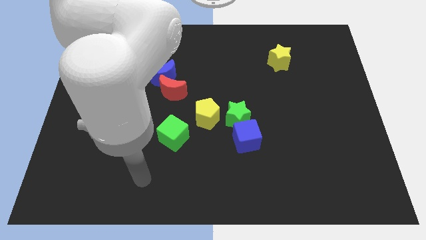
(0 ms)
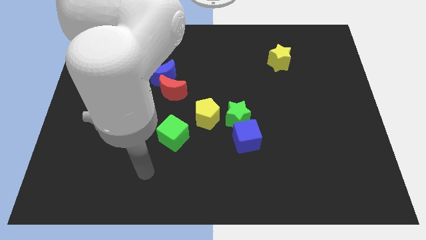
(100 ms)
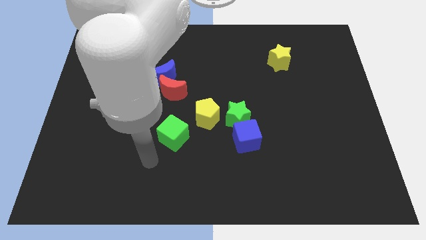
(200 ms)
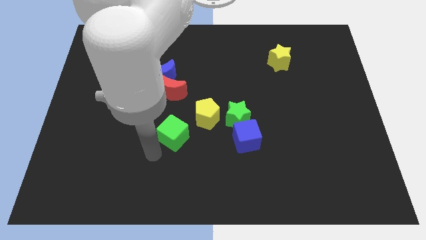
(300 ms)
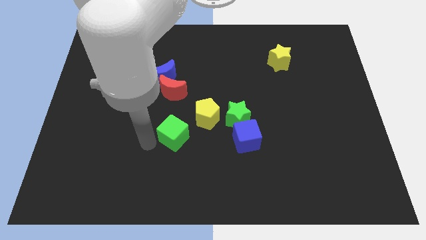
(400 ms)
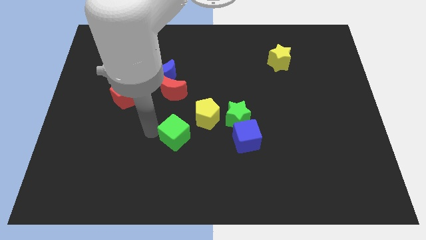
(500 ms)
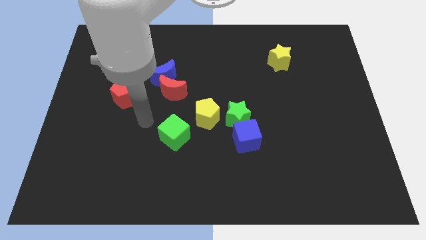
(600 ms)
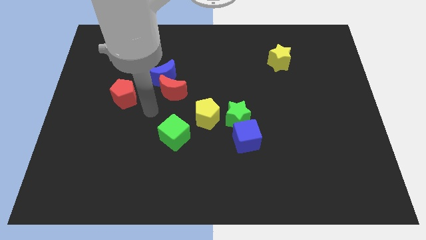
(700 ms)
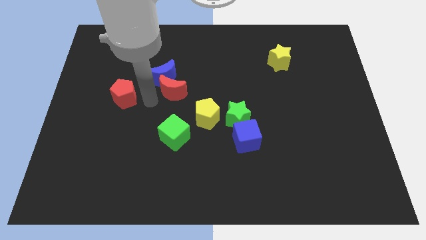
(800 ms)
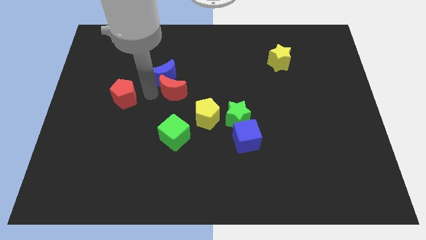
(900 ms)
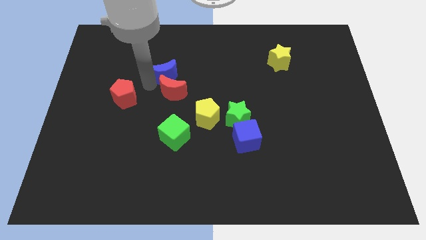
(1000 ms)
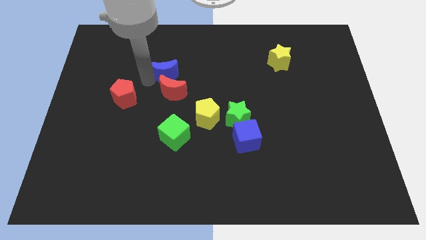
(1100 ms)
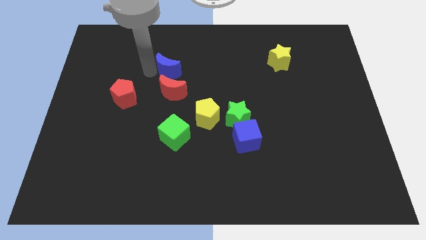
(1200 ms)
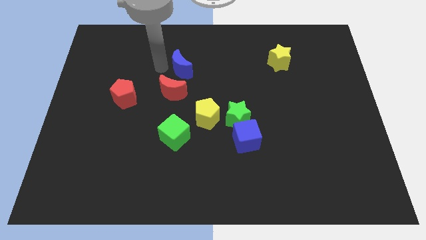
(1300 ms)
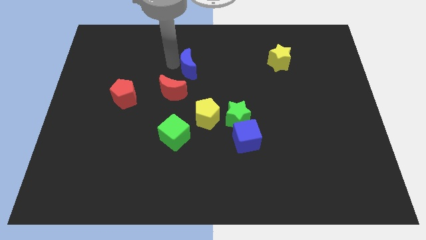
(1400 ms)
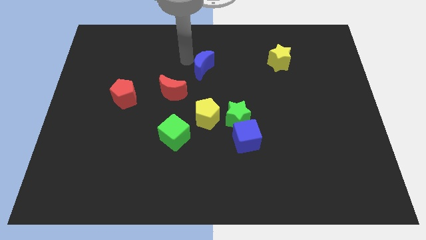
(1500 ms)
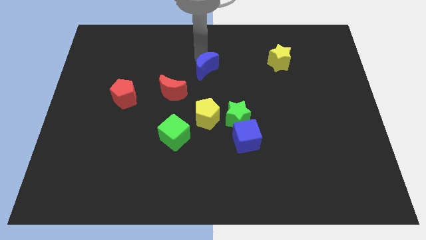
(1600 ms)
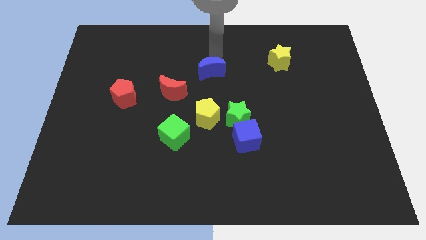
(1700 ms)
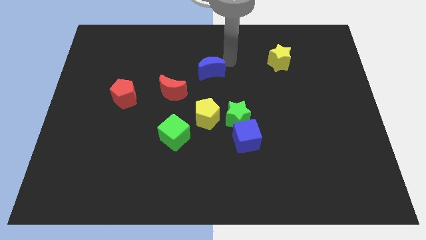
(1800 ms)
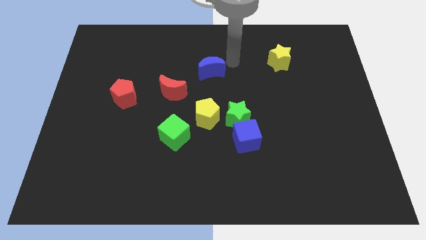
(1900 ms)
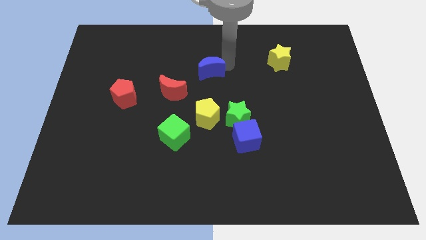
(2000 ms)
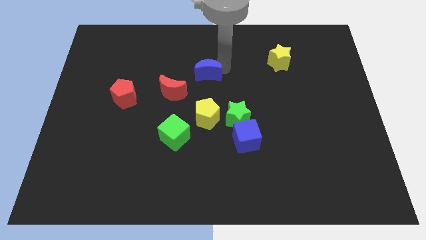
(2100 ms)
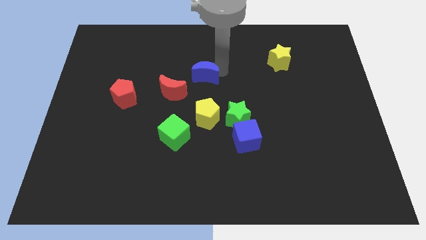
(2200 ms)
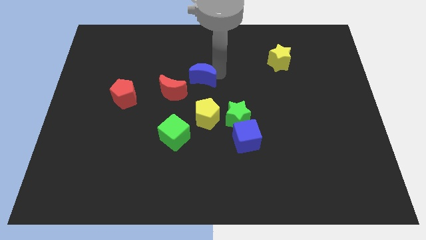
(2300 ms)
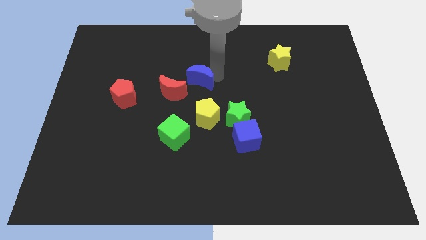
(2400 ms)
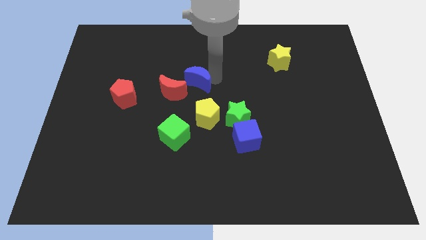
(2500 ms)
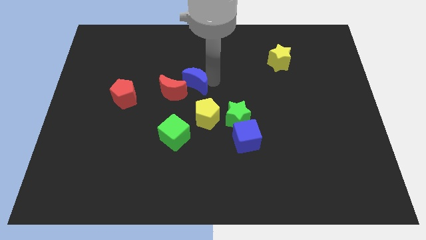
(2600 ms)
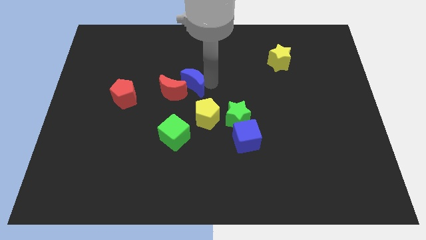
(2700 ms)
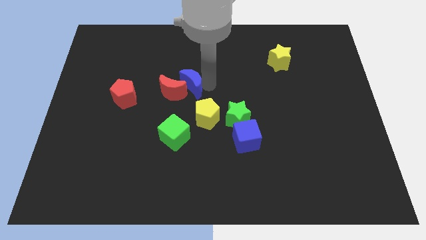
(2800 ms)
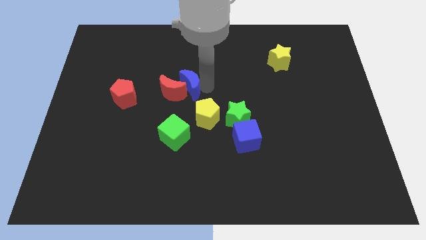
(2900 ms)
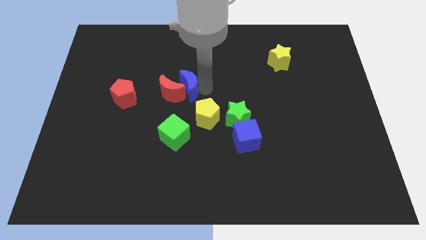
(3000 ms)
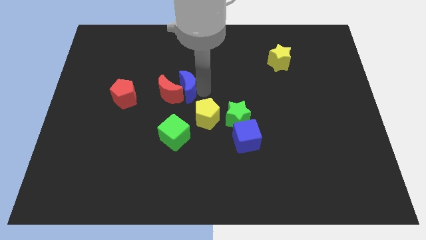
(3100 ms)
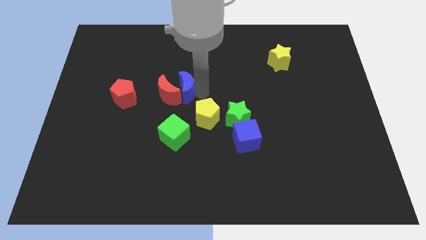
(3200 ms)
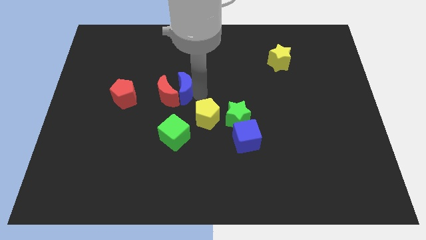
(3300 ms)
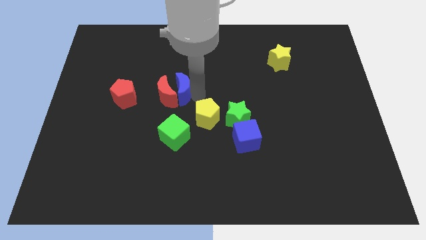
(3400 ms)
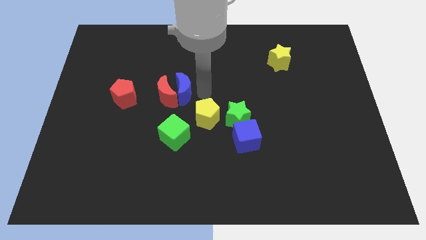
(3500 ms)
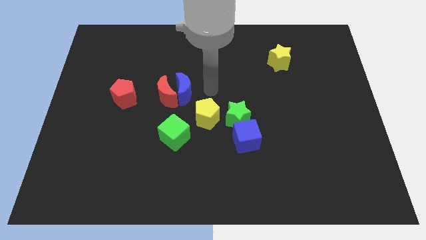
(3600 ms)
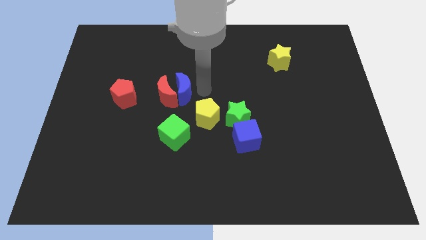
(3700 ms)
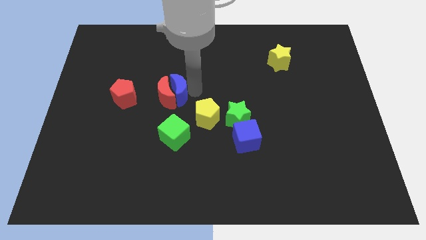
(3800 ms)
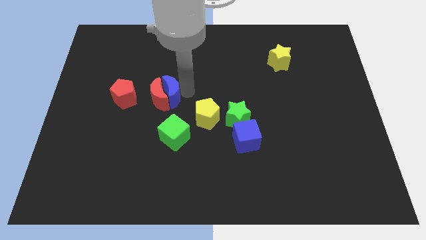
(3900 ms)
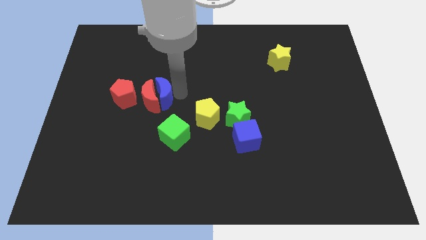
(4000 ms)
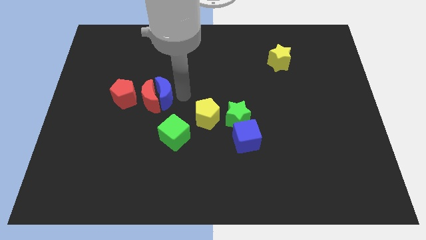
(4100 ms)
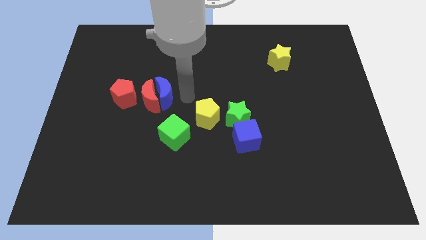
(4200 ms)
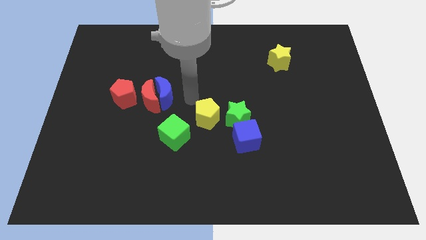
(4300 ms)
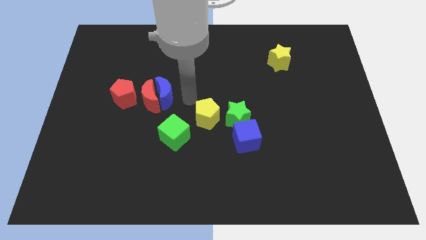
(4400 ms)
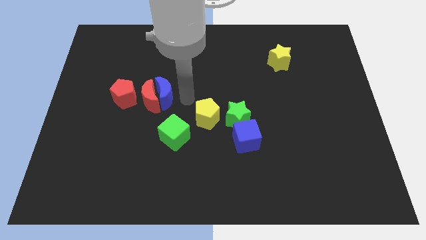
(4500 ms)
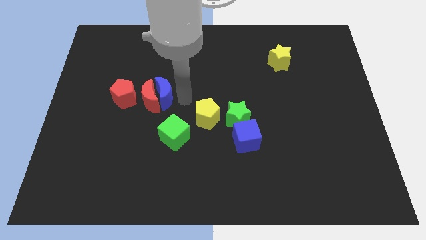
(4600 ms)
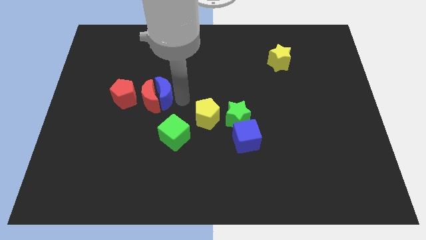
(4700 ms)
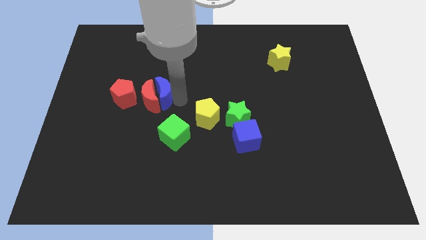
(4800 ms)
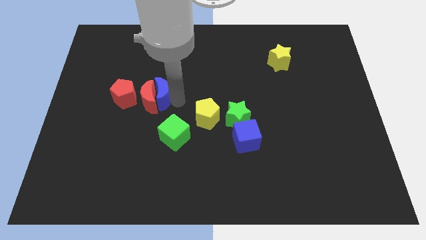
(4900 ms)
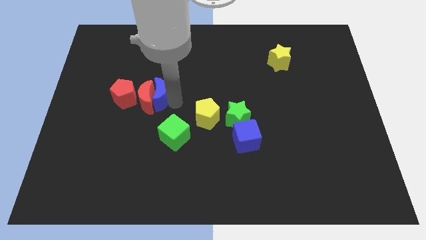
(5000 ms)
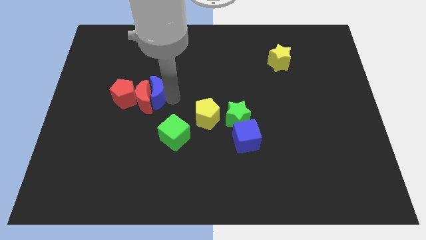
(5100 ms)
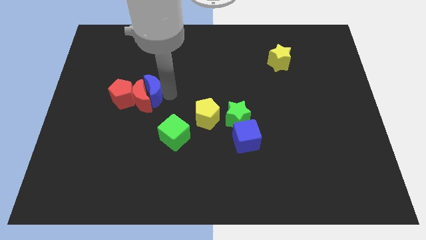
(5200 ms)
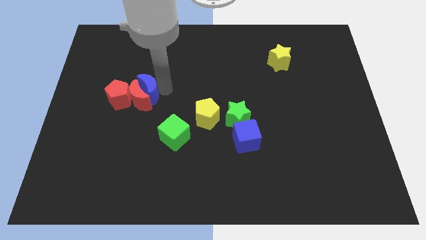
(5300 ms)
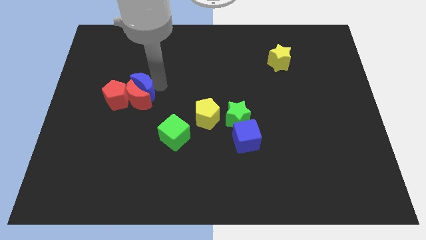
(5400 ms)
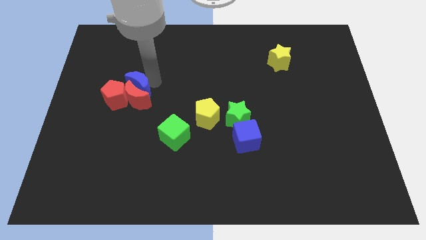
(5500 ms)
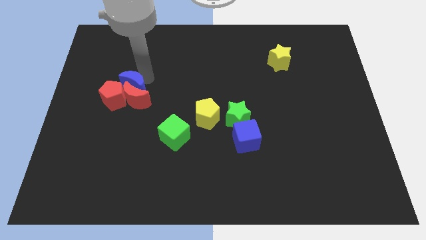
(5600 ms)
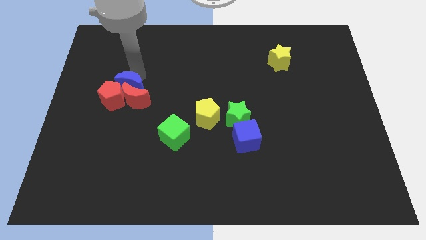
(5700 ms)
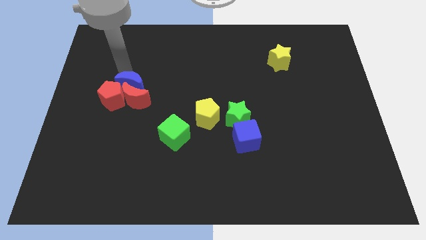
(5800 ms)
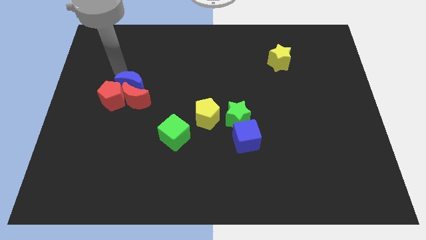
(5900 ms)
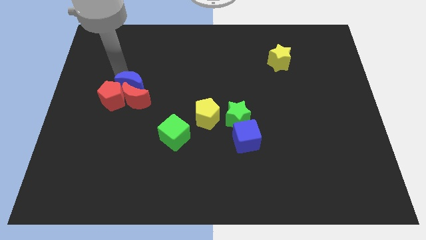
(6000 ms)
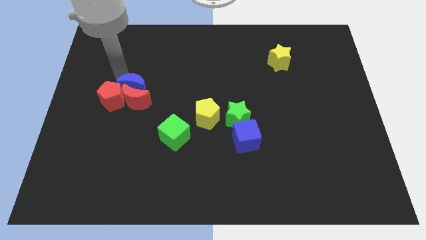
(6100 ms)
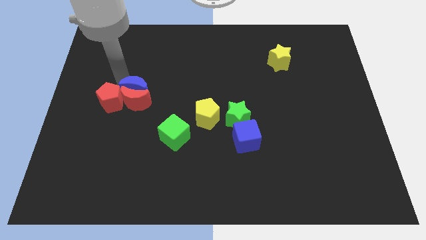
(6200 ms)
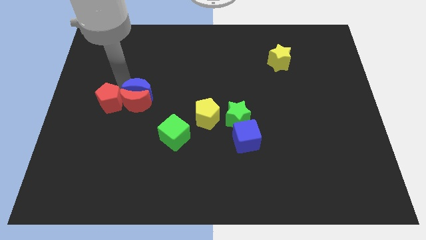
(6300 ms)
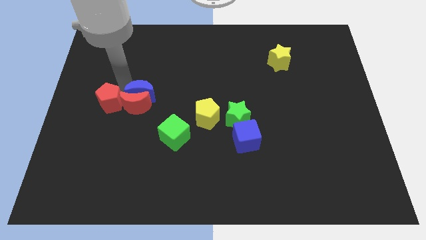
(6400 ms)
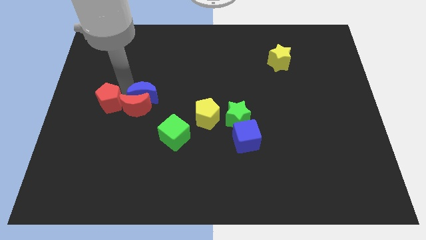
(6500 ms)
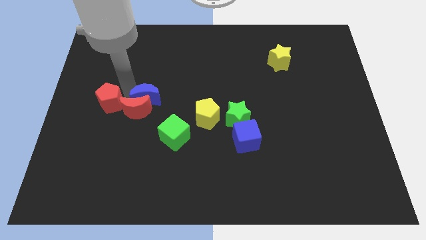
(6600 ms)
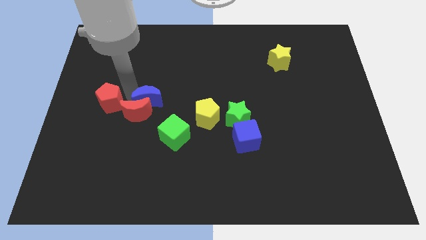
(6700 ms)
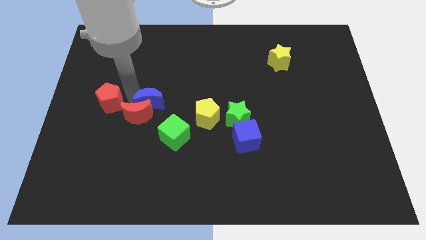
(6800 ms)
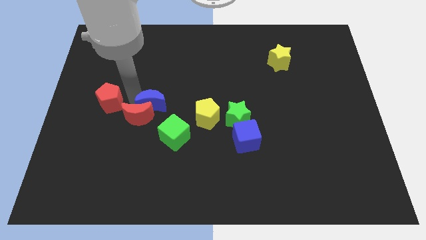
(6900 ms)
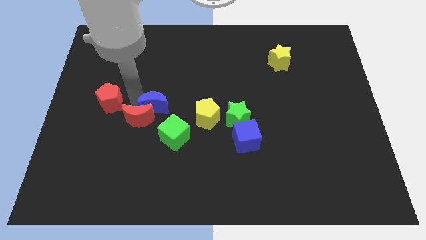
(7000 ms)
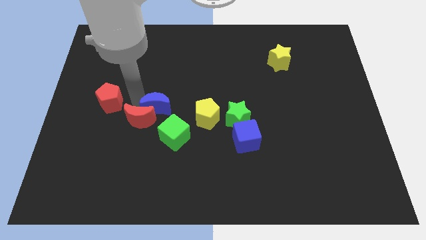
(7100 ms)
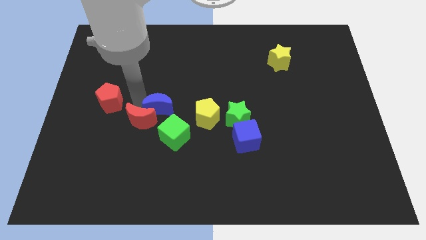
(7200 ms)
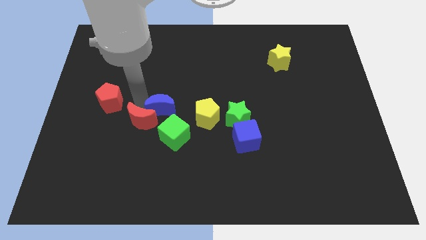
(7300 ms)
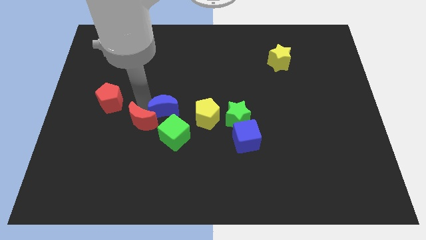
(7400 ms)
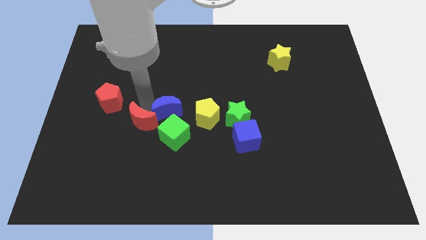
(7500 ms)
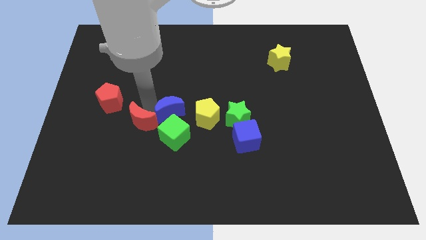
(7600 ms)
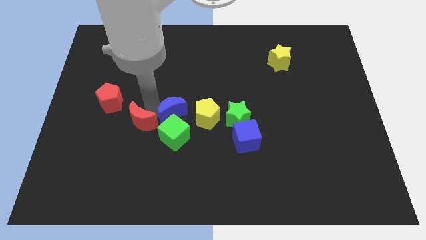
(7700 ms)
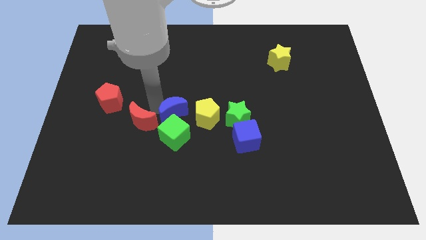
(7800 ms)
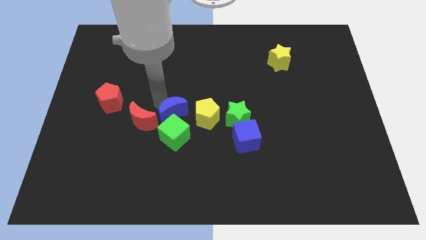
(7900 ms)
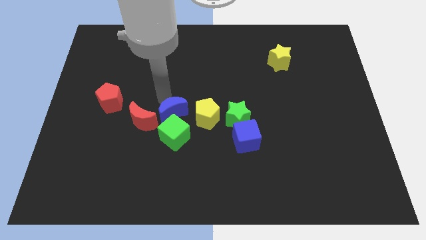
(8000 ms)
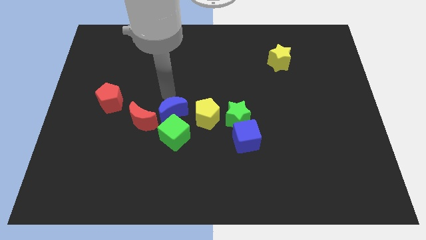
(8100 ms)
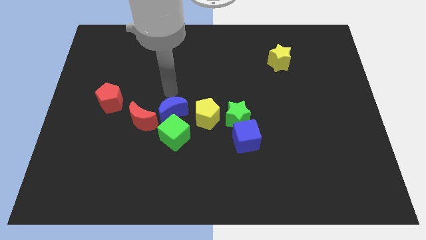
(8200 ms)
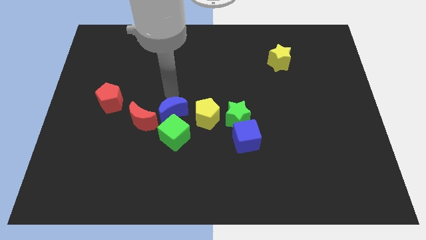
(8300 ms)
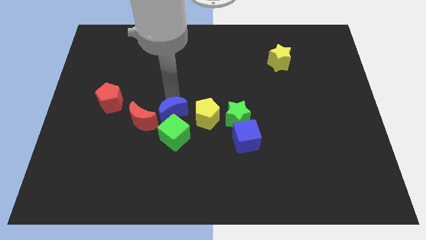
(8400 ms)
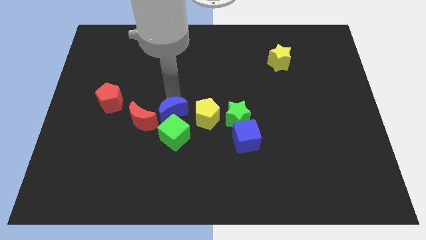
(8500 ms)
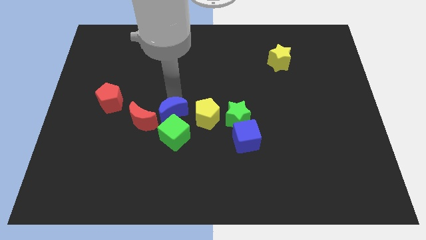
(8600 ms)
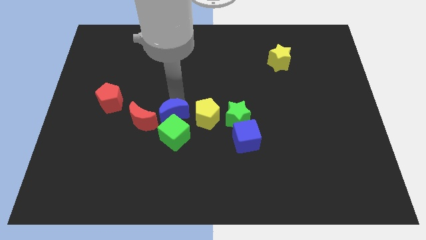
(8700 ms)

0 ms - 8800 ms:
slide the blue moon to the green cube
